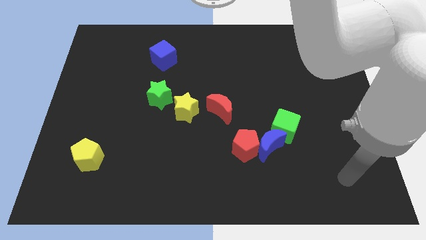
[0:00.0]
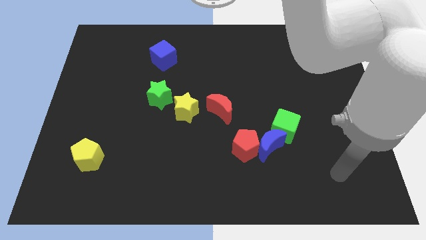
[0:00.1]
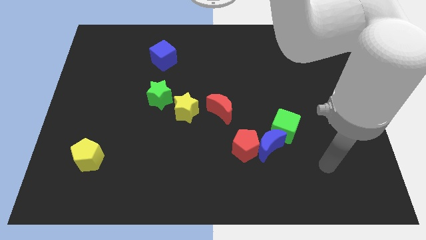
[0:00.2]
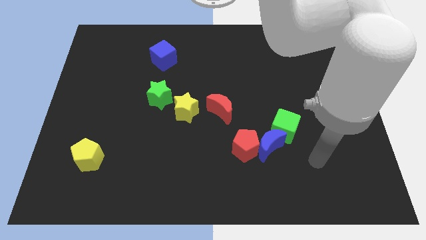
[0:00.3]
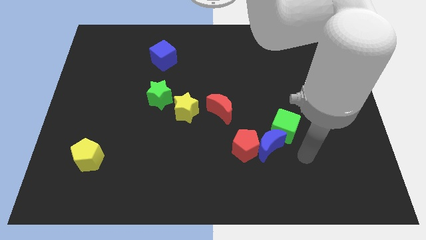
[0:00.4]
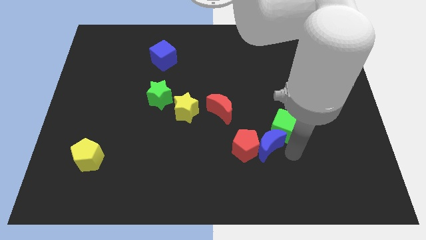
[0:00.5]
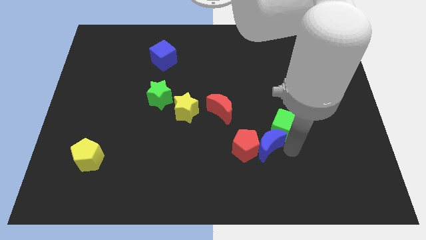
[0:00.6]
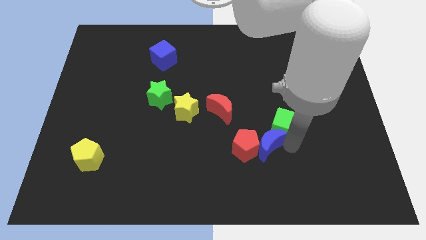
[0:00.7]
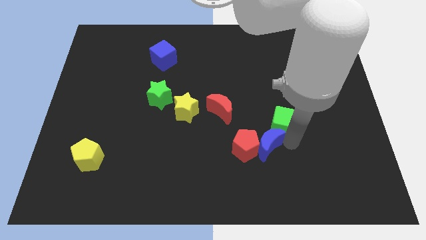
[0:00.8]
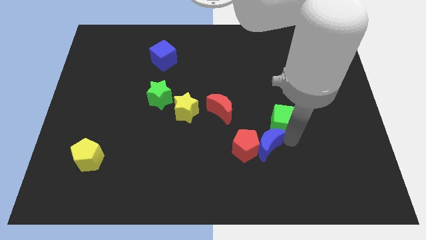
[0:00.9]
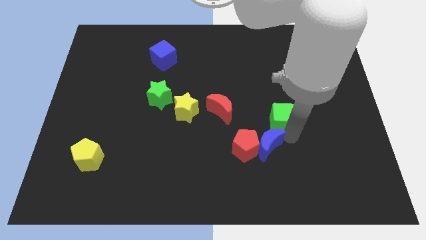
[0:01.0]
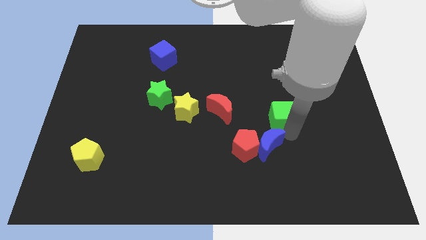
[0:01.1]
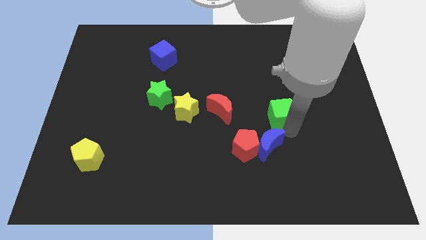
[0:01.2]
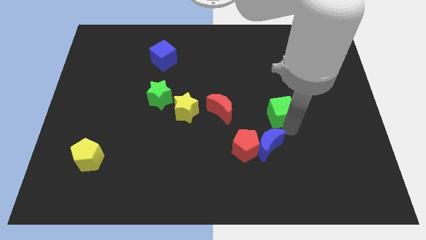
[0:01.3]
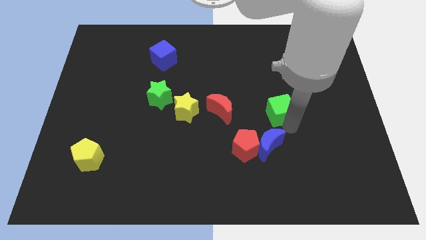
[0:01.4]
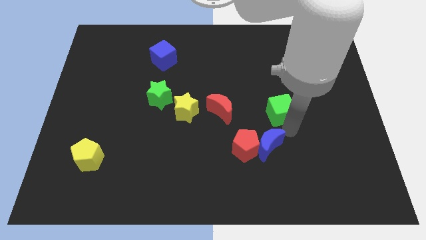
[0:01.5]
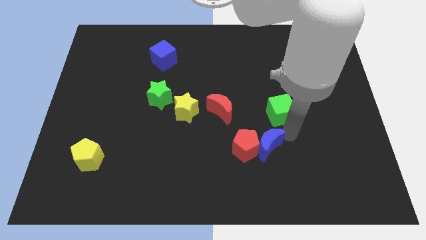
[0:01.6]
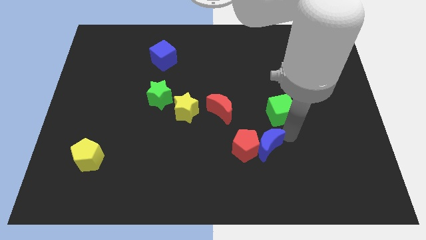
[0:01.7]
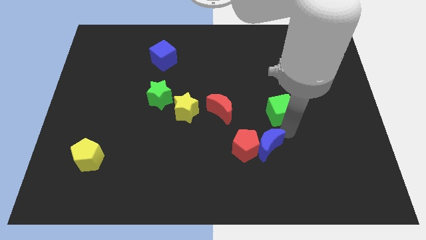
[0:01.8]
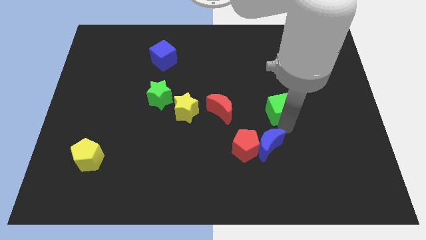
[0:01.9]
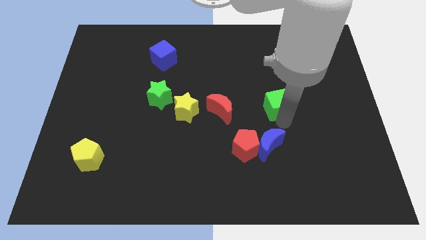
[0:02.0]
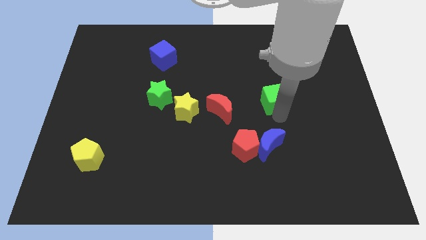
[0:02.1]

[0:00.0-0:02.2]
slightly push the green cube upwards

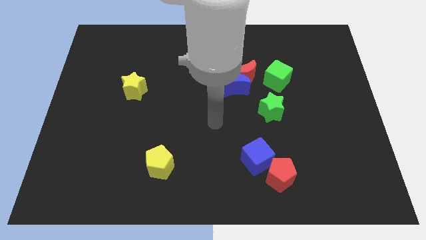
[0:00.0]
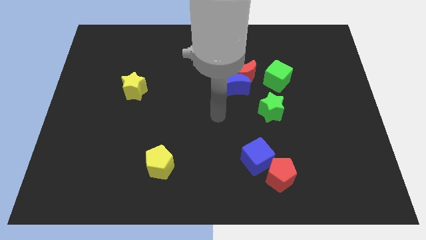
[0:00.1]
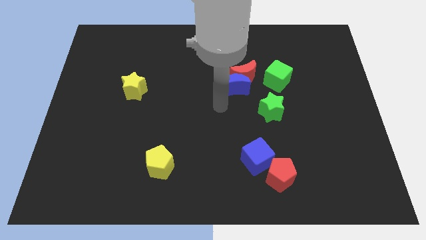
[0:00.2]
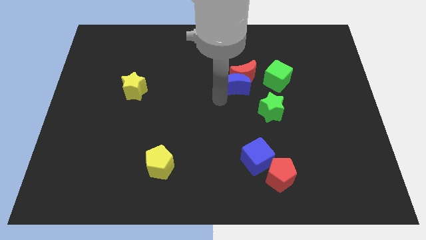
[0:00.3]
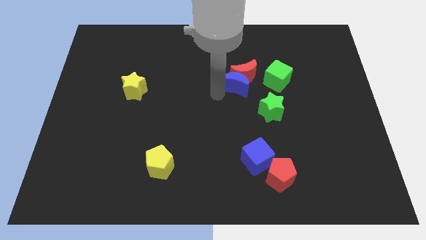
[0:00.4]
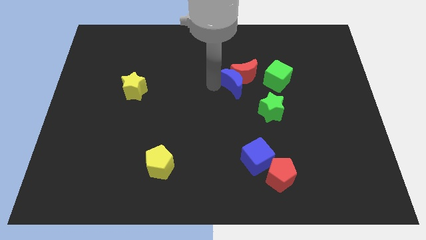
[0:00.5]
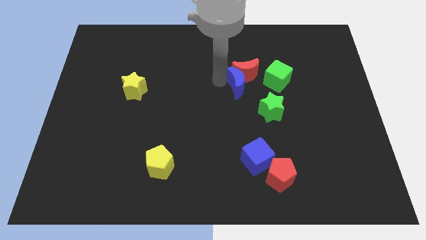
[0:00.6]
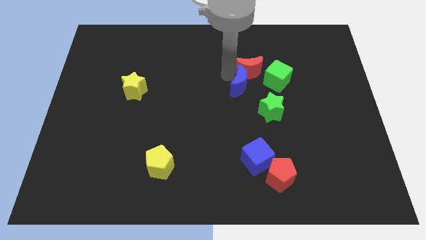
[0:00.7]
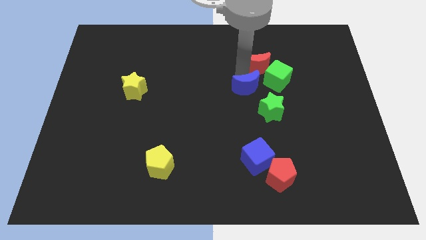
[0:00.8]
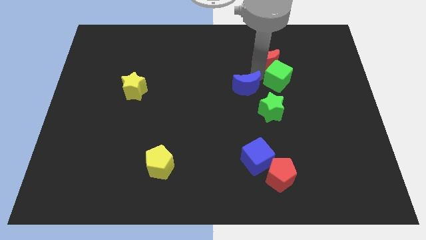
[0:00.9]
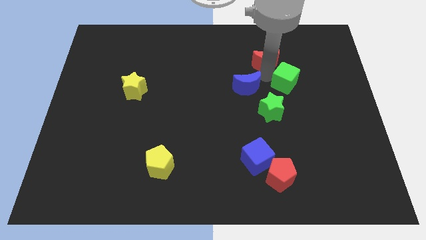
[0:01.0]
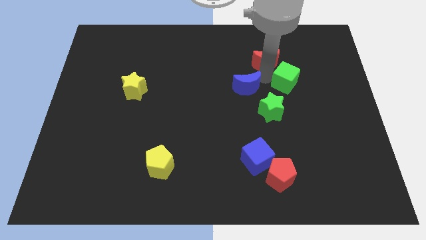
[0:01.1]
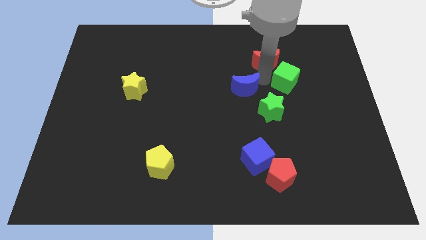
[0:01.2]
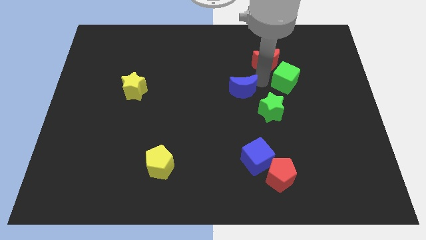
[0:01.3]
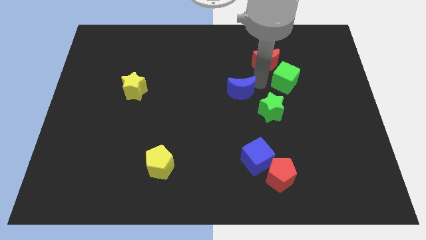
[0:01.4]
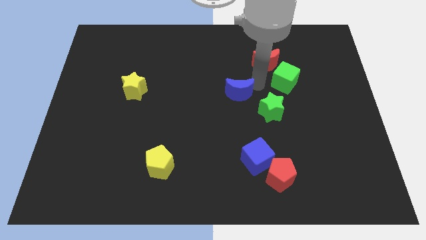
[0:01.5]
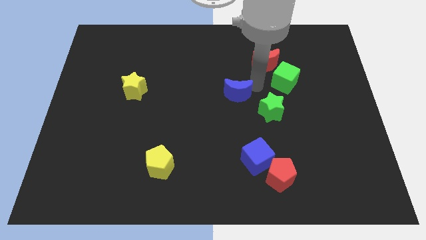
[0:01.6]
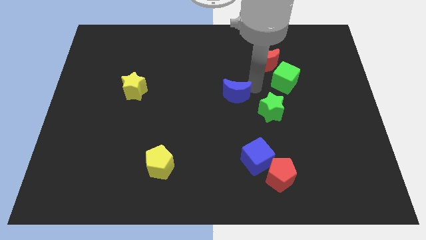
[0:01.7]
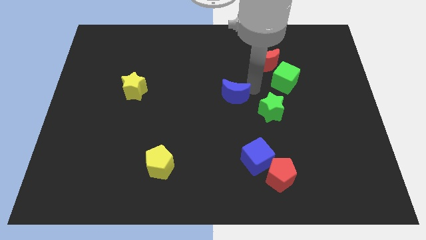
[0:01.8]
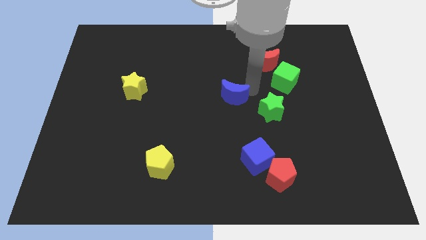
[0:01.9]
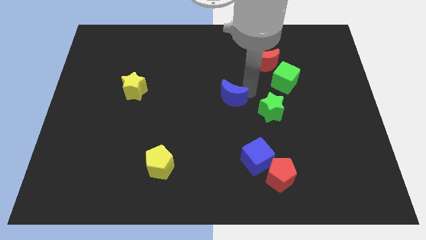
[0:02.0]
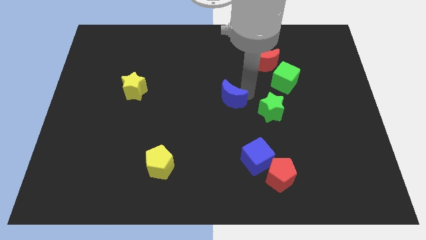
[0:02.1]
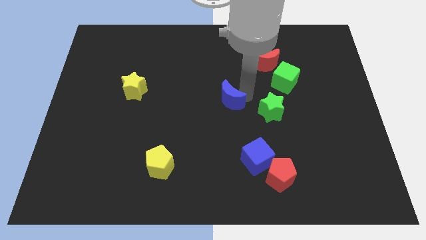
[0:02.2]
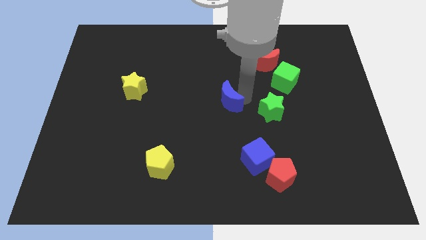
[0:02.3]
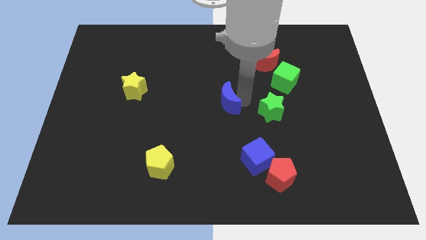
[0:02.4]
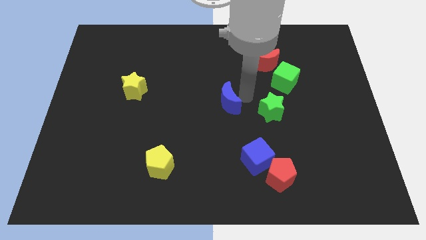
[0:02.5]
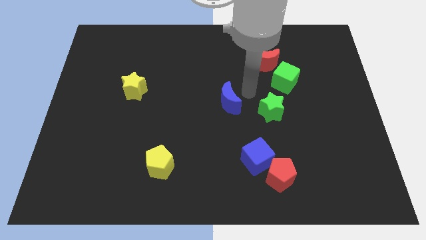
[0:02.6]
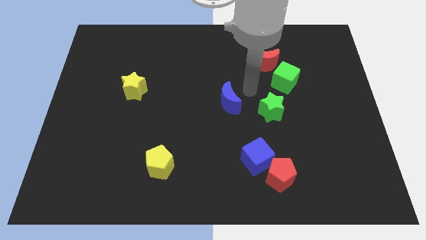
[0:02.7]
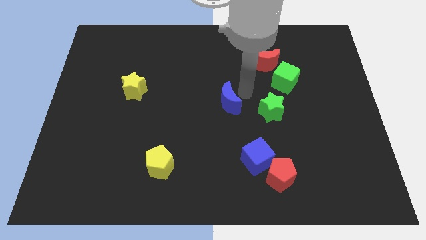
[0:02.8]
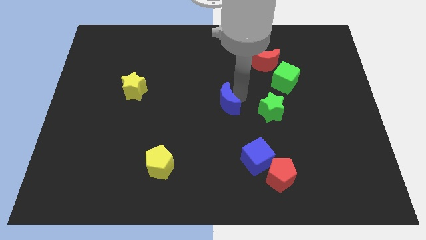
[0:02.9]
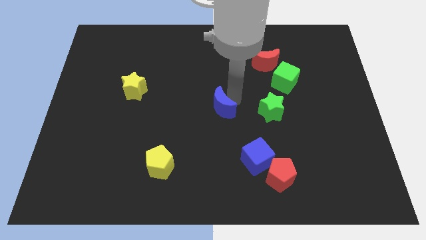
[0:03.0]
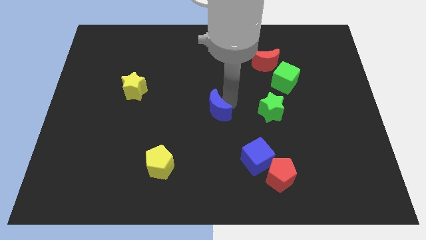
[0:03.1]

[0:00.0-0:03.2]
push the blue moon a little down and left

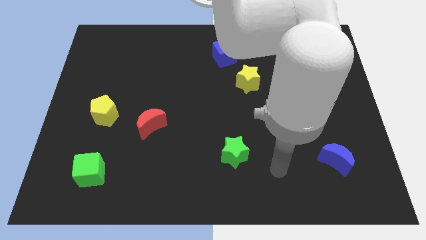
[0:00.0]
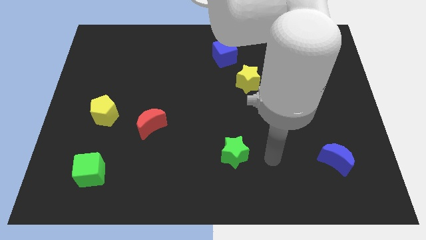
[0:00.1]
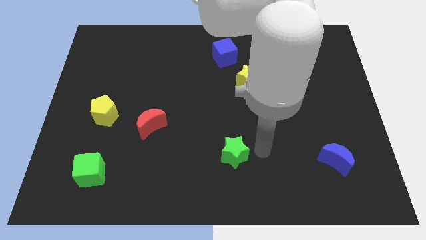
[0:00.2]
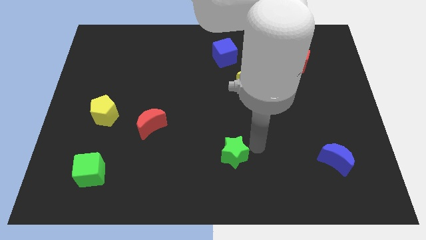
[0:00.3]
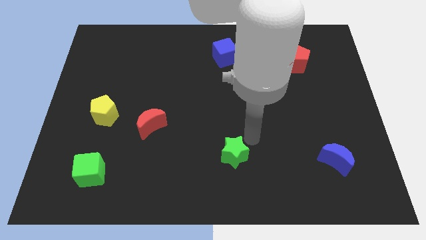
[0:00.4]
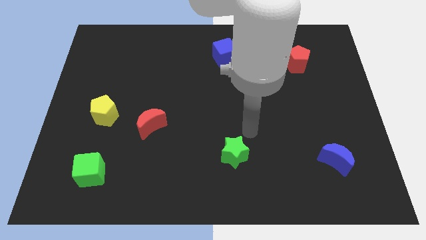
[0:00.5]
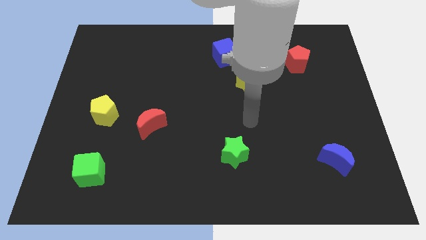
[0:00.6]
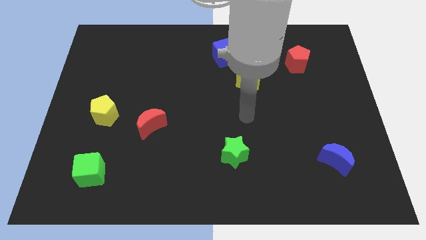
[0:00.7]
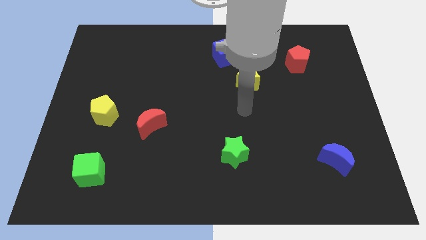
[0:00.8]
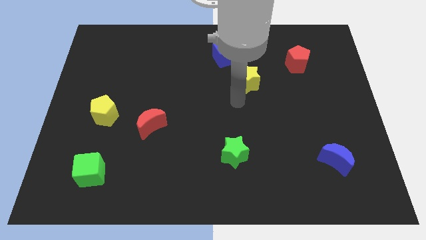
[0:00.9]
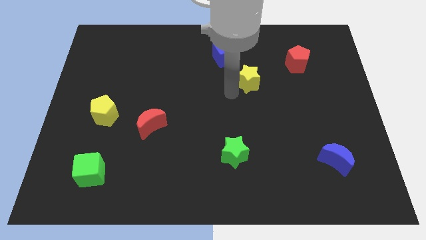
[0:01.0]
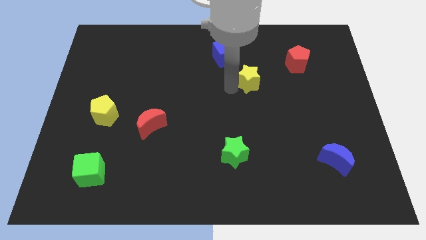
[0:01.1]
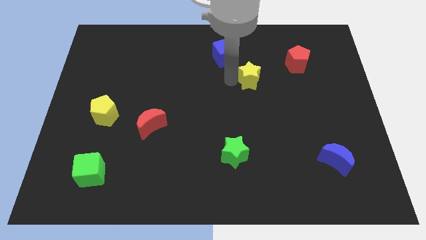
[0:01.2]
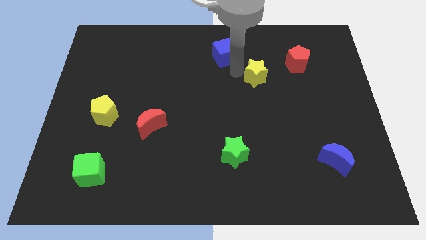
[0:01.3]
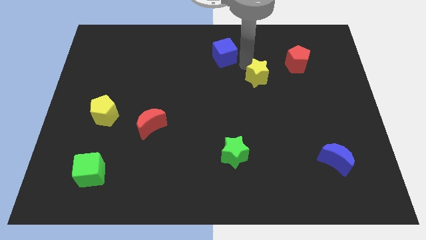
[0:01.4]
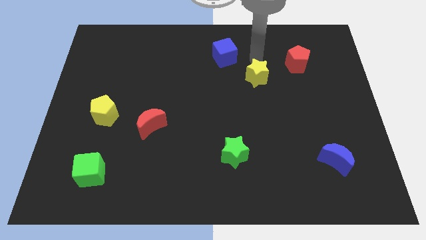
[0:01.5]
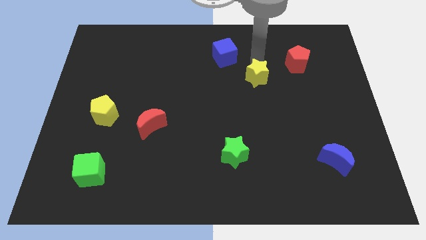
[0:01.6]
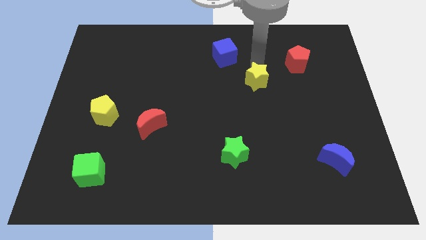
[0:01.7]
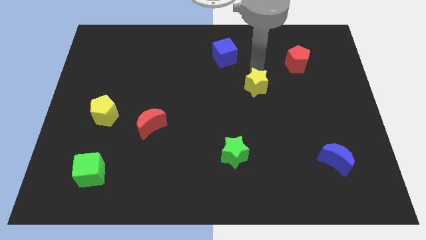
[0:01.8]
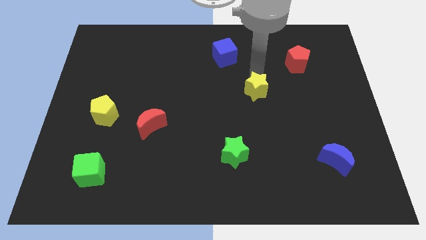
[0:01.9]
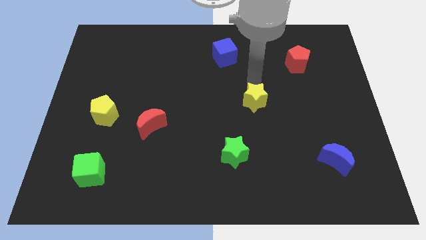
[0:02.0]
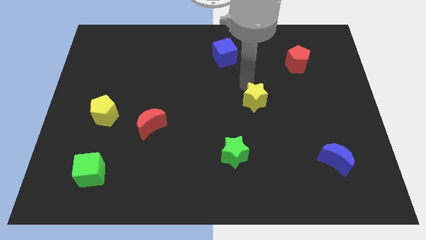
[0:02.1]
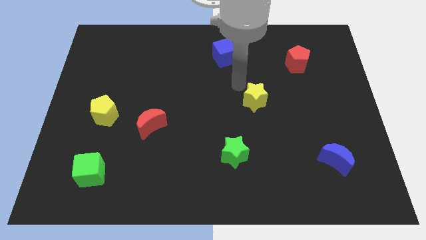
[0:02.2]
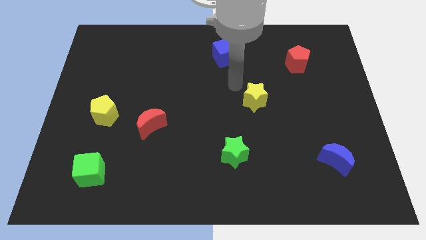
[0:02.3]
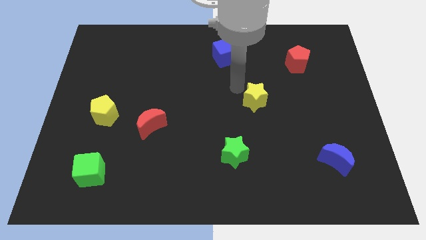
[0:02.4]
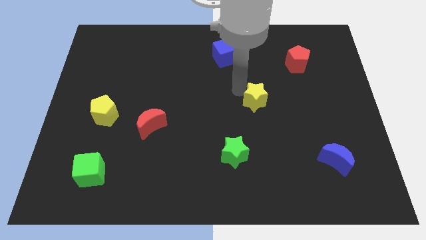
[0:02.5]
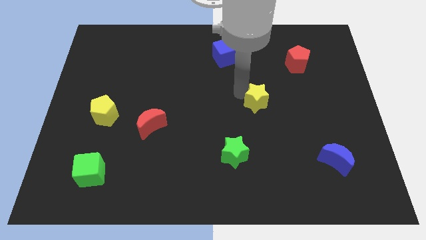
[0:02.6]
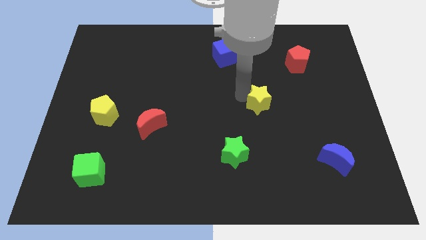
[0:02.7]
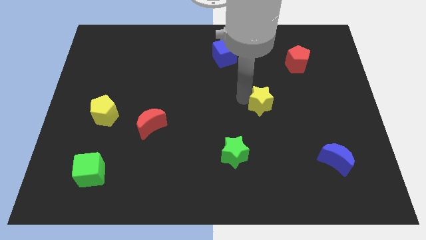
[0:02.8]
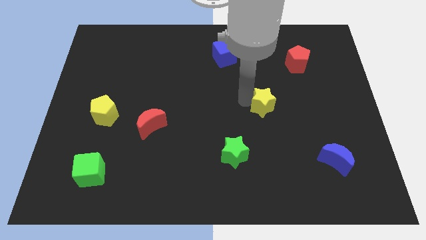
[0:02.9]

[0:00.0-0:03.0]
push the yellow star downwards a little bit
